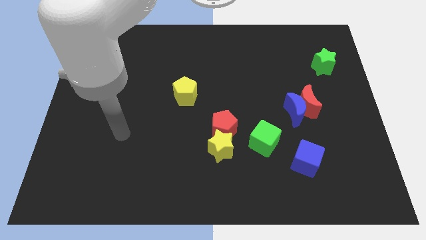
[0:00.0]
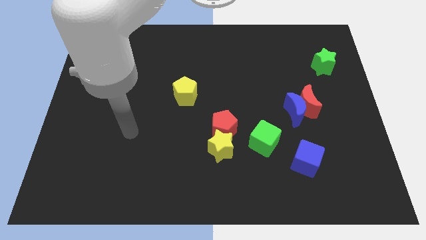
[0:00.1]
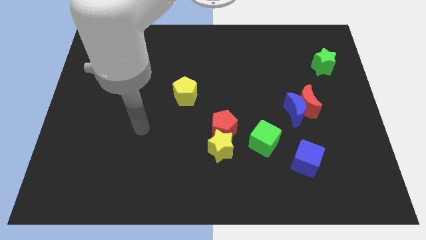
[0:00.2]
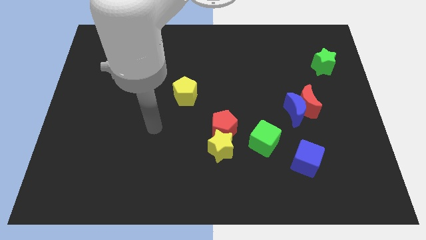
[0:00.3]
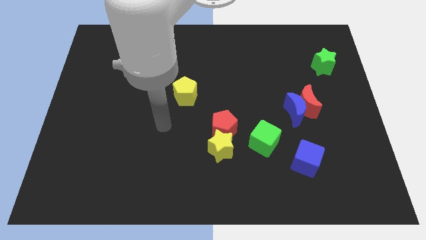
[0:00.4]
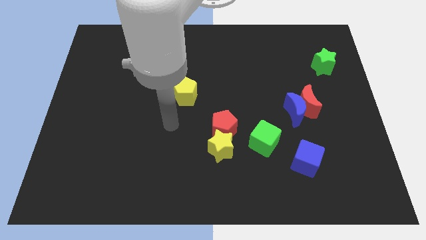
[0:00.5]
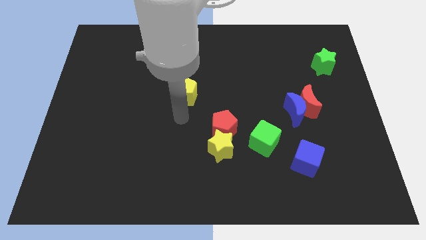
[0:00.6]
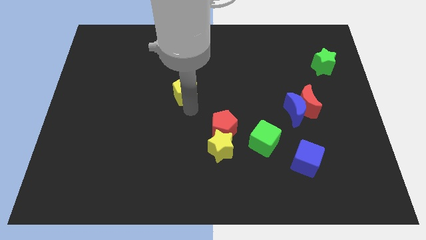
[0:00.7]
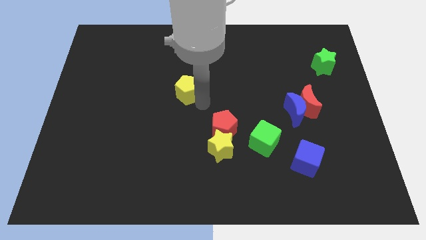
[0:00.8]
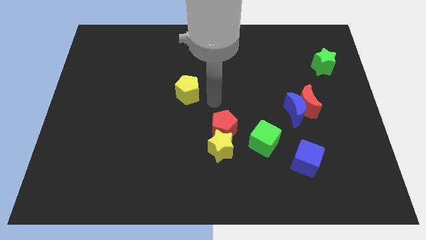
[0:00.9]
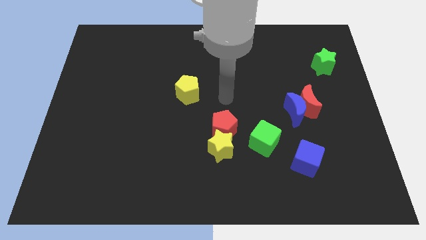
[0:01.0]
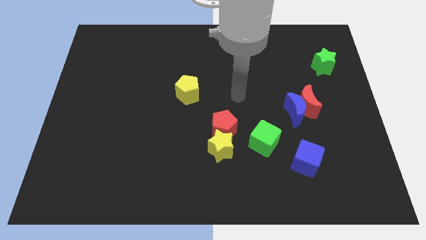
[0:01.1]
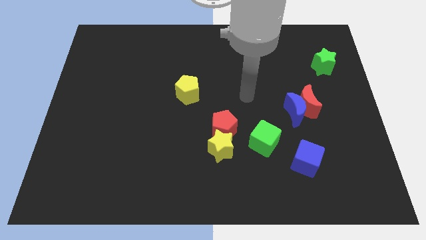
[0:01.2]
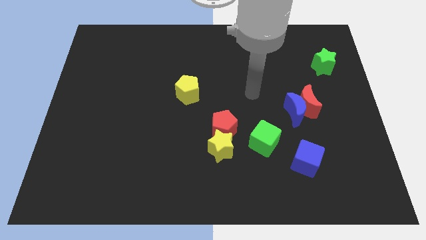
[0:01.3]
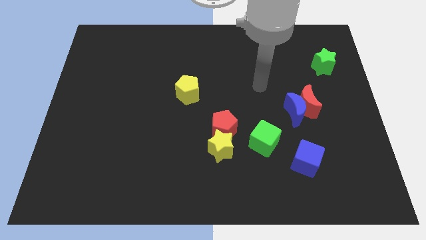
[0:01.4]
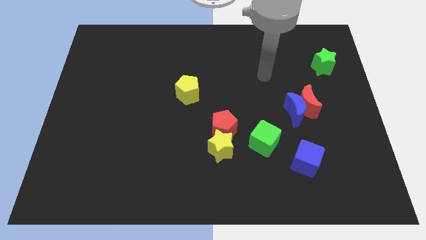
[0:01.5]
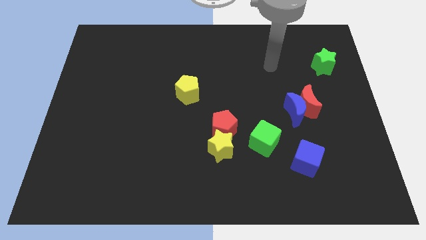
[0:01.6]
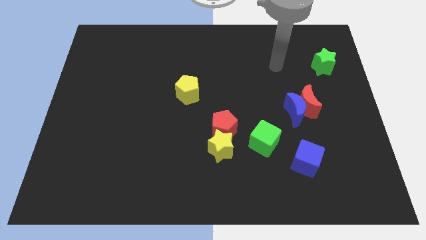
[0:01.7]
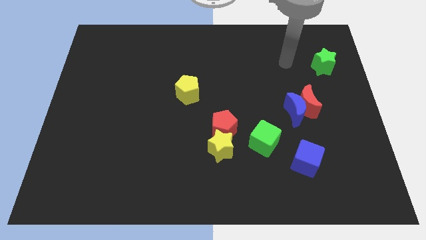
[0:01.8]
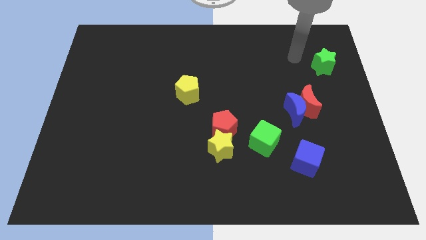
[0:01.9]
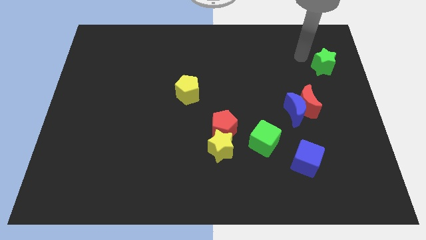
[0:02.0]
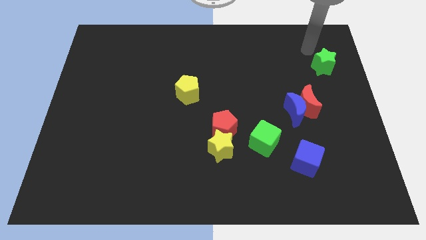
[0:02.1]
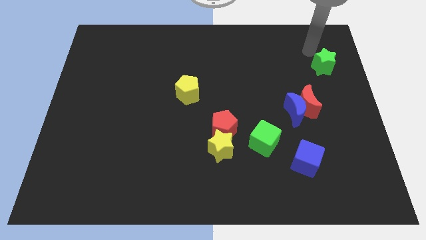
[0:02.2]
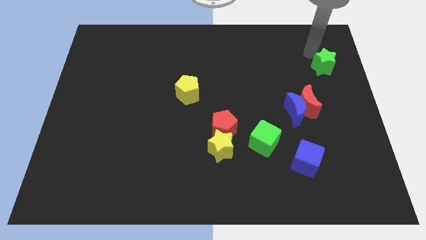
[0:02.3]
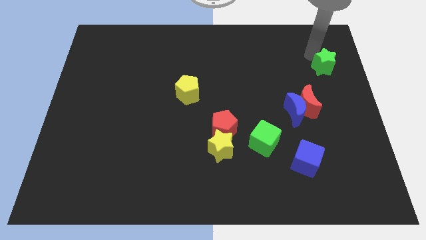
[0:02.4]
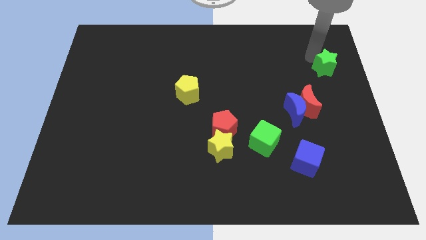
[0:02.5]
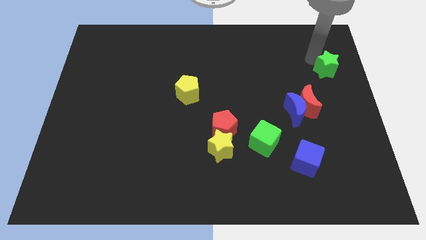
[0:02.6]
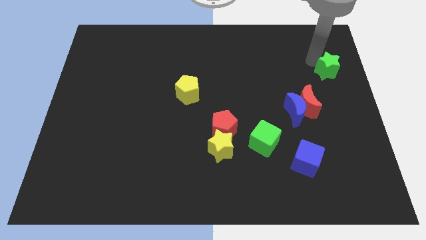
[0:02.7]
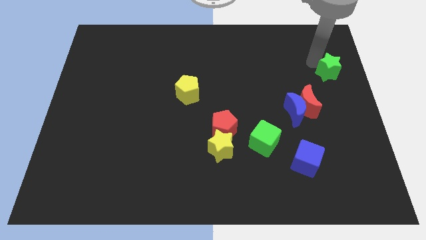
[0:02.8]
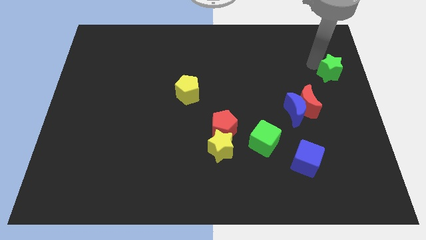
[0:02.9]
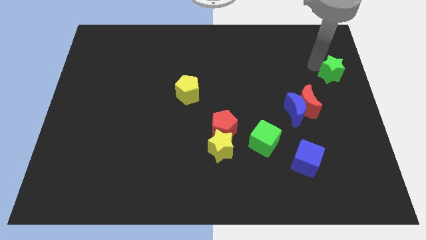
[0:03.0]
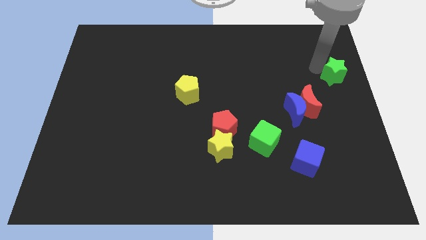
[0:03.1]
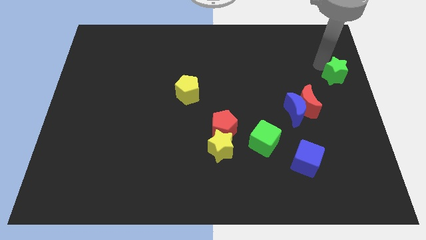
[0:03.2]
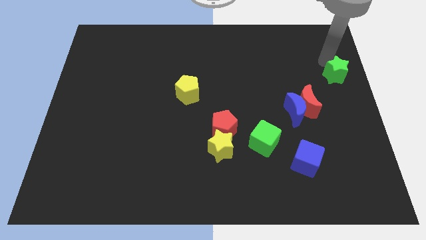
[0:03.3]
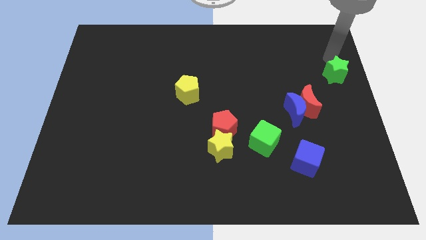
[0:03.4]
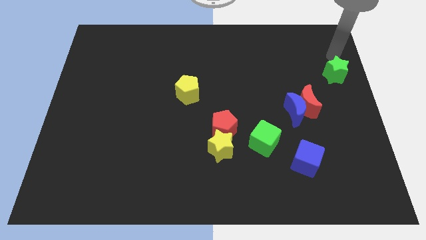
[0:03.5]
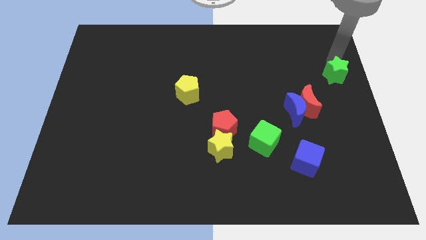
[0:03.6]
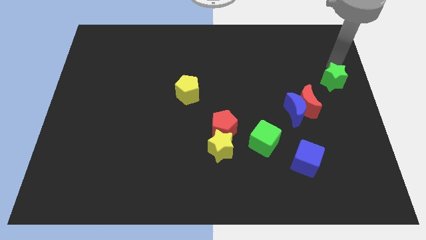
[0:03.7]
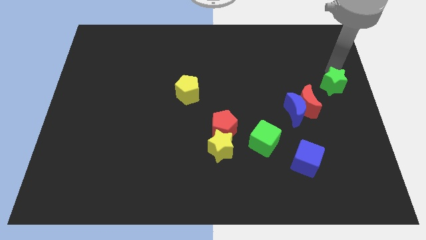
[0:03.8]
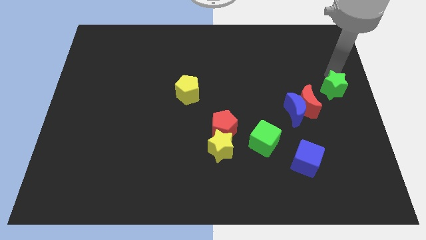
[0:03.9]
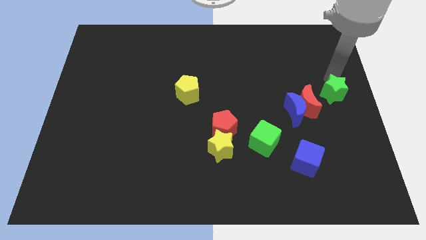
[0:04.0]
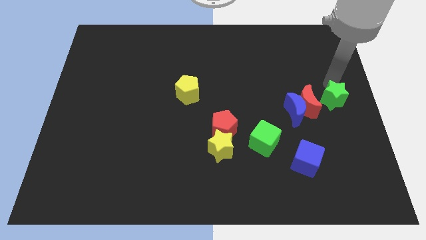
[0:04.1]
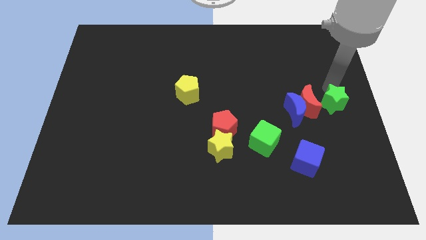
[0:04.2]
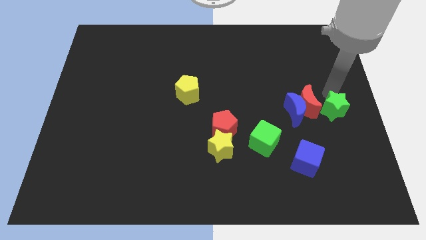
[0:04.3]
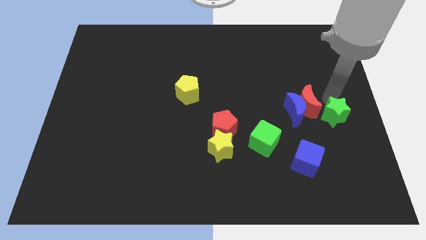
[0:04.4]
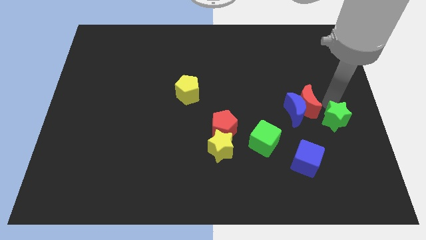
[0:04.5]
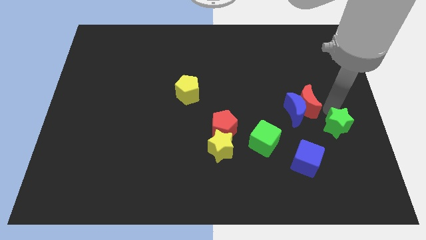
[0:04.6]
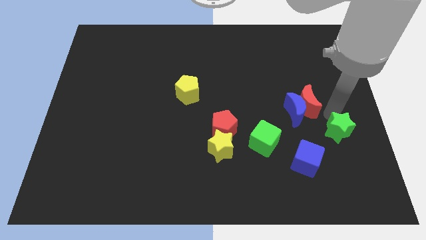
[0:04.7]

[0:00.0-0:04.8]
push the green star downwards

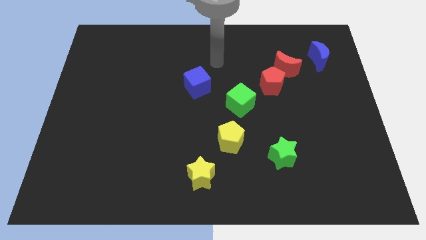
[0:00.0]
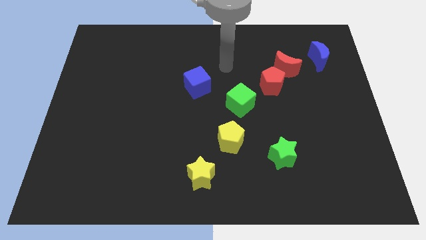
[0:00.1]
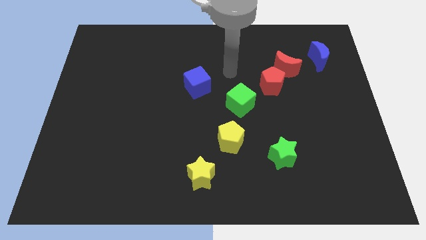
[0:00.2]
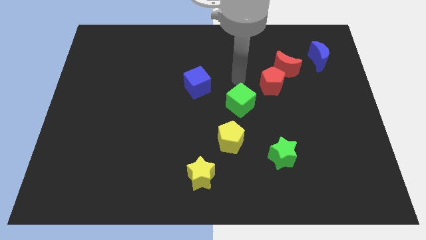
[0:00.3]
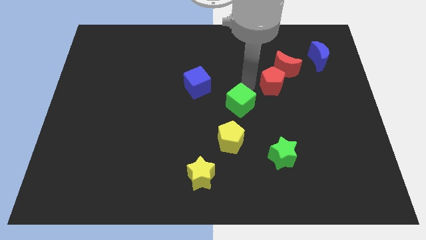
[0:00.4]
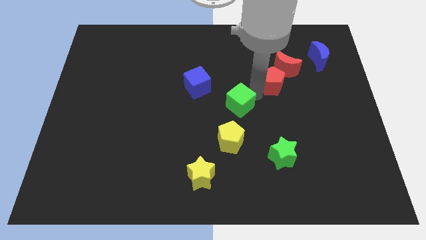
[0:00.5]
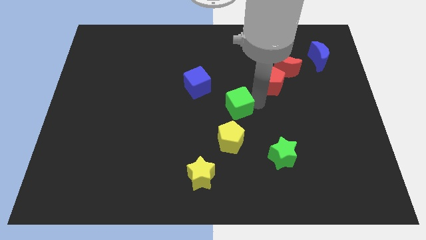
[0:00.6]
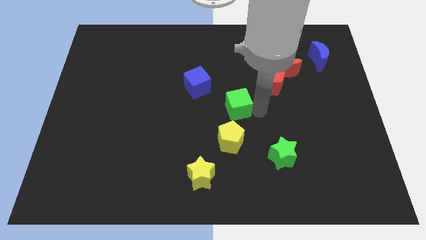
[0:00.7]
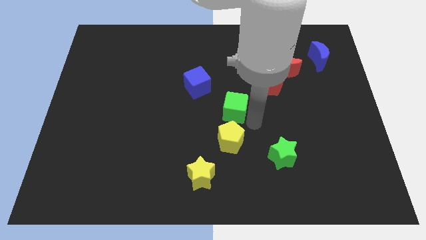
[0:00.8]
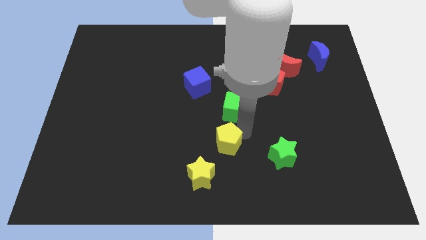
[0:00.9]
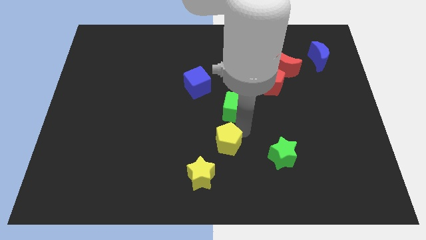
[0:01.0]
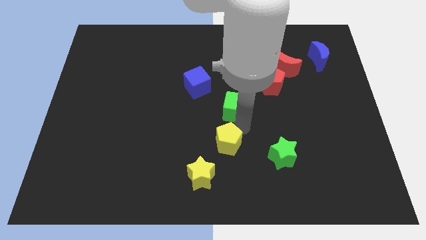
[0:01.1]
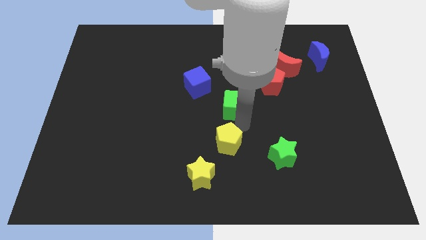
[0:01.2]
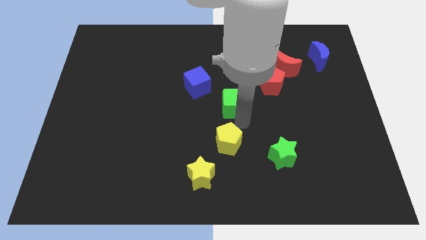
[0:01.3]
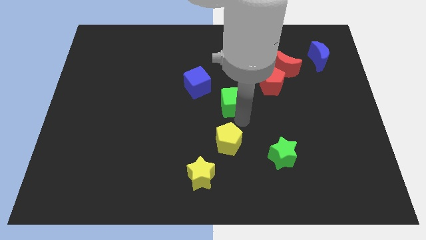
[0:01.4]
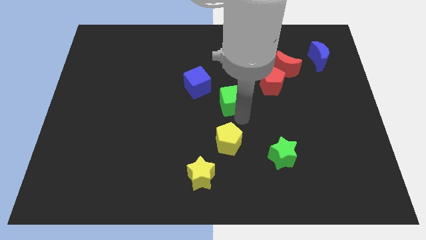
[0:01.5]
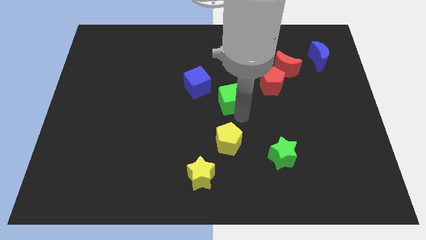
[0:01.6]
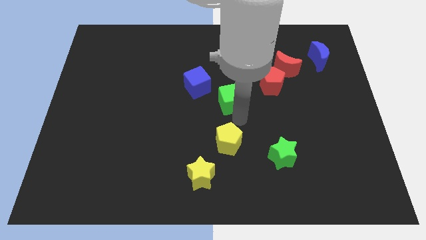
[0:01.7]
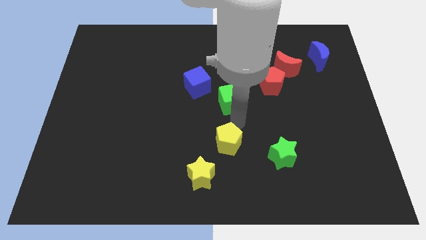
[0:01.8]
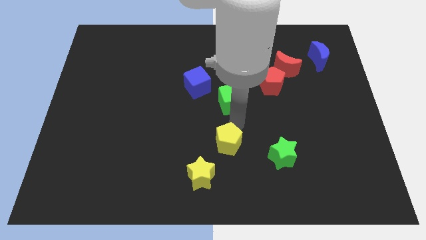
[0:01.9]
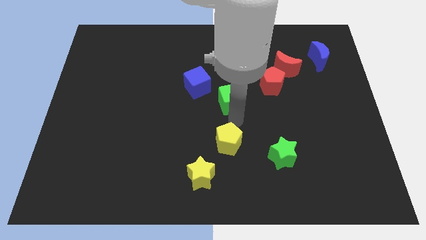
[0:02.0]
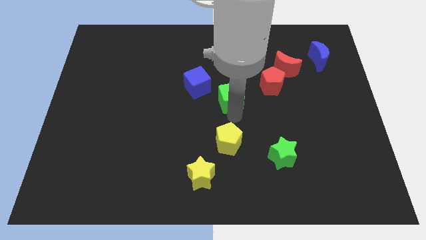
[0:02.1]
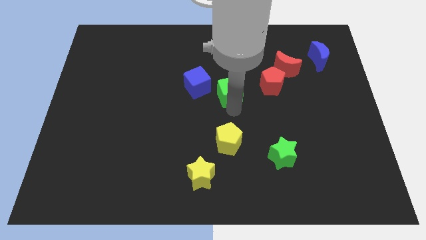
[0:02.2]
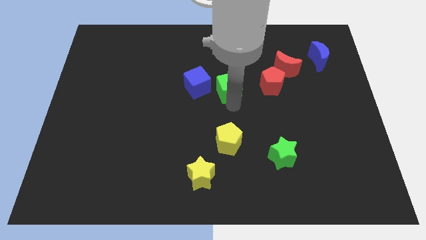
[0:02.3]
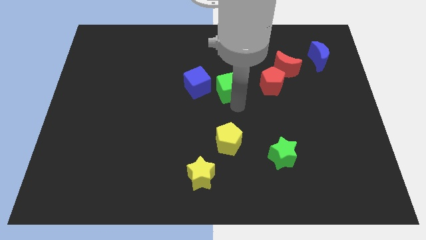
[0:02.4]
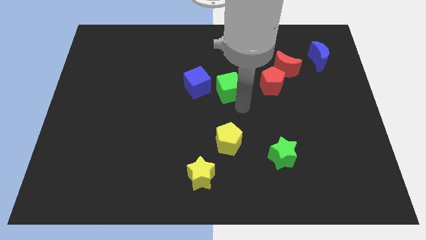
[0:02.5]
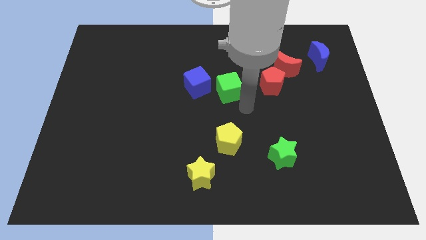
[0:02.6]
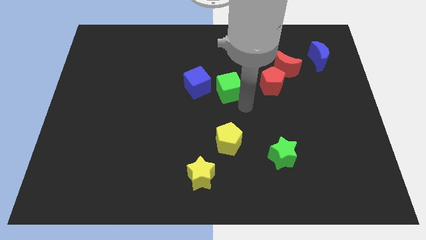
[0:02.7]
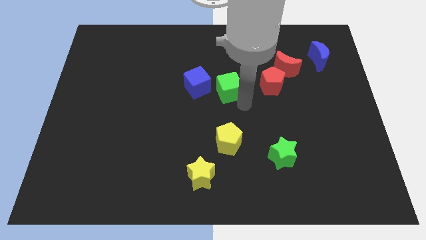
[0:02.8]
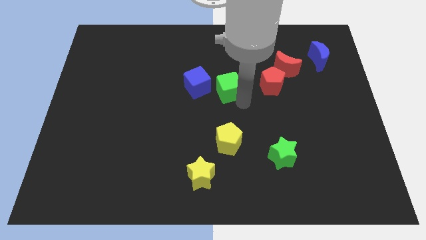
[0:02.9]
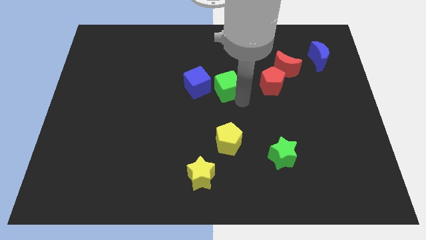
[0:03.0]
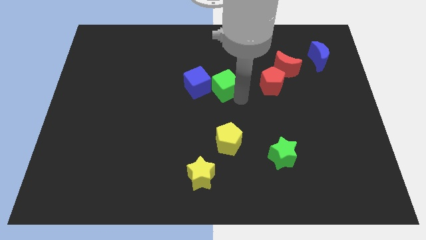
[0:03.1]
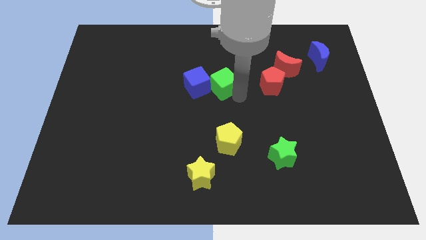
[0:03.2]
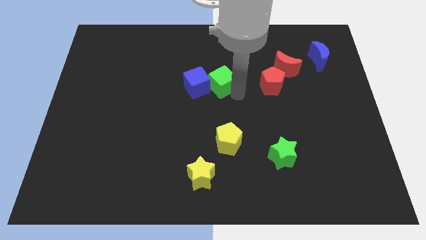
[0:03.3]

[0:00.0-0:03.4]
move the green cube somewhat up and to the left diagonally
